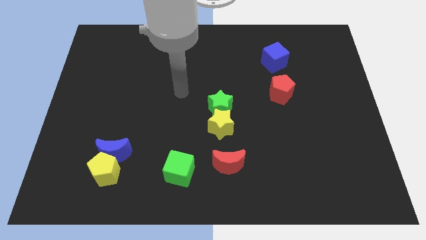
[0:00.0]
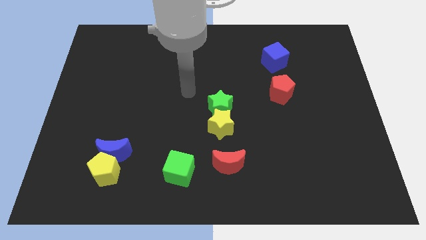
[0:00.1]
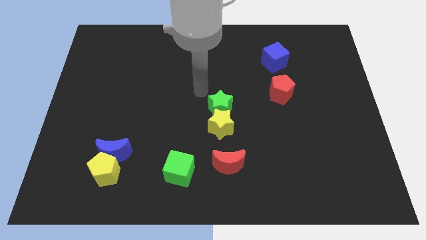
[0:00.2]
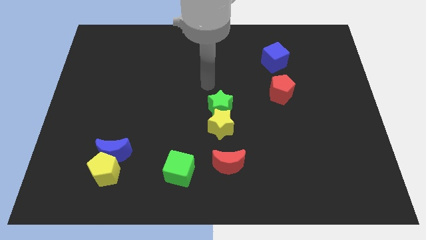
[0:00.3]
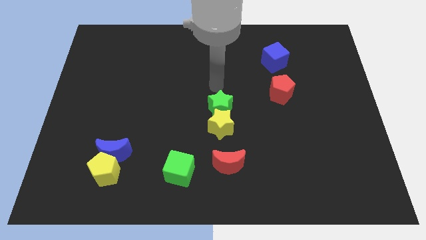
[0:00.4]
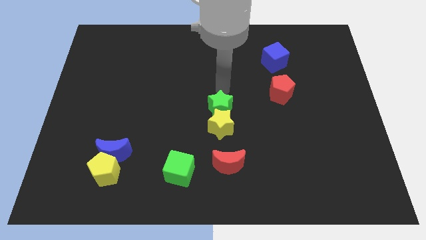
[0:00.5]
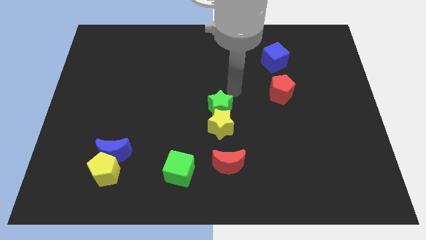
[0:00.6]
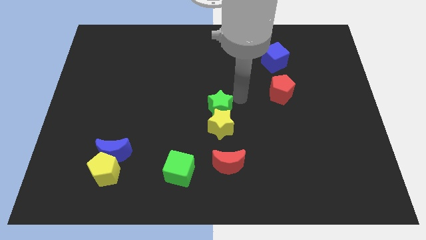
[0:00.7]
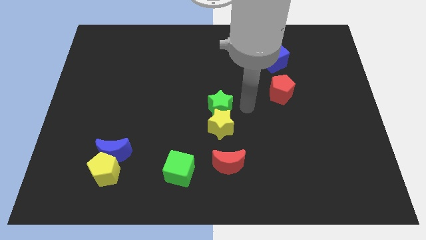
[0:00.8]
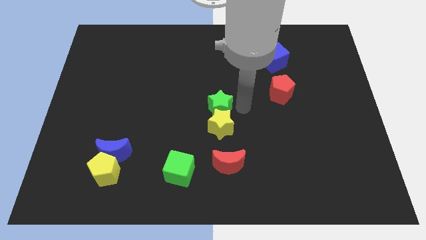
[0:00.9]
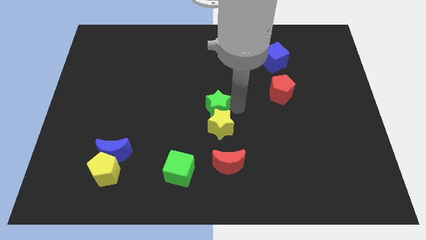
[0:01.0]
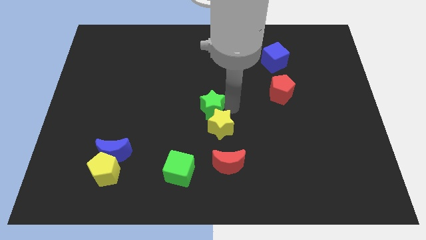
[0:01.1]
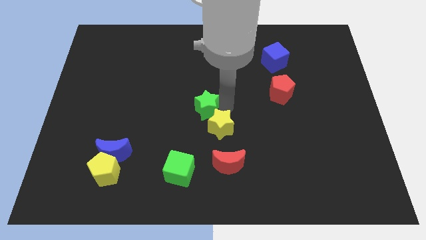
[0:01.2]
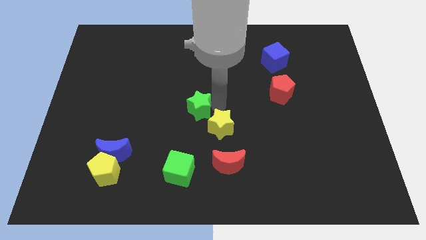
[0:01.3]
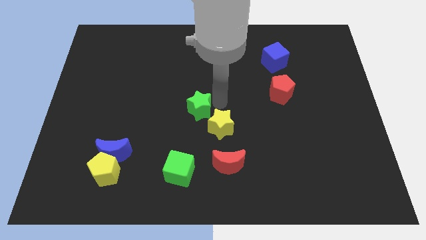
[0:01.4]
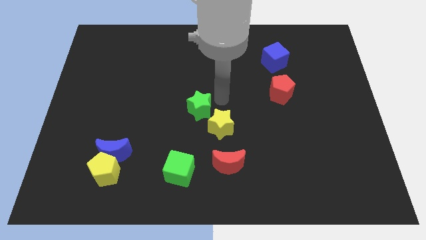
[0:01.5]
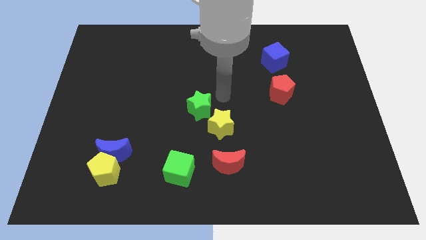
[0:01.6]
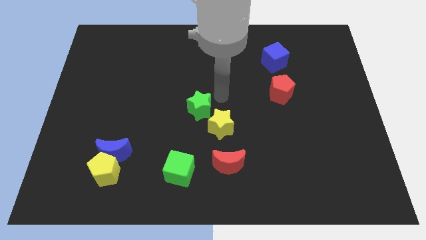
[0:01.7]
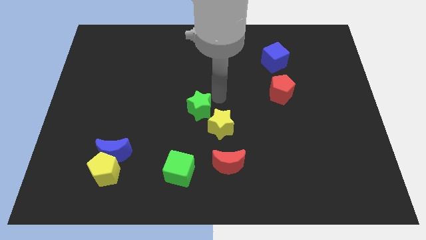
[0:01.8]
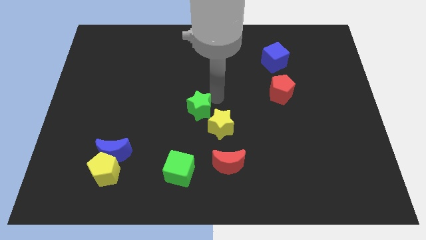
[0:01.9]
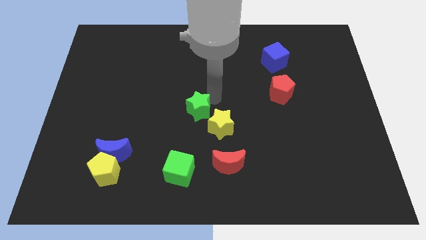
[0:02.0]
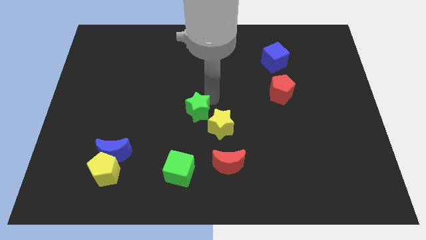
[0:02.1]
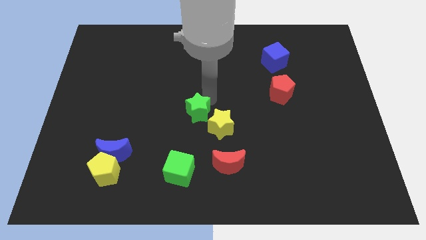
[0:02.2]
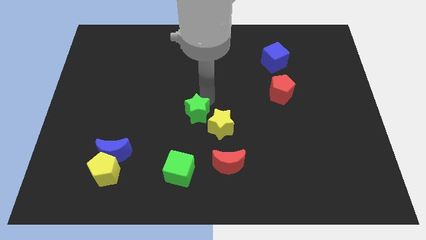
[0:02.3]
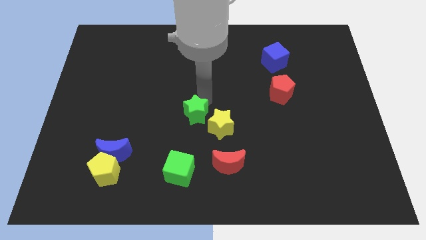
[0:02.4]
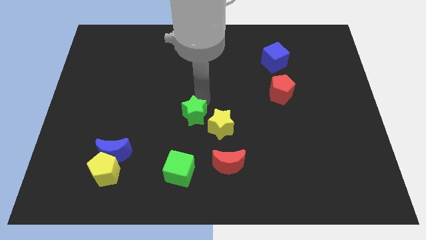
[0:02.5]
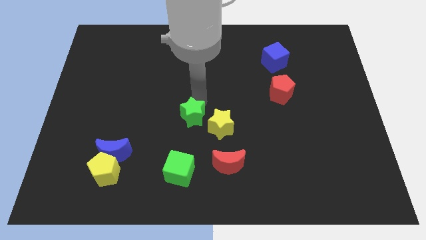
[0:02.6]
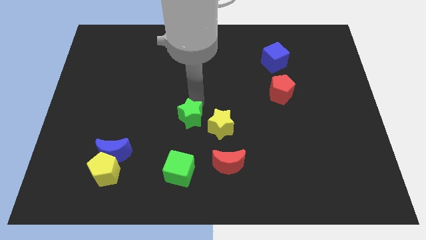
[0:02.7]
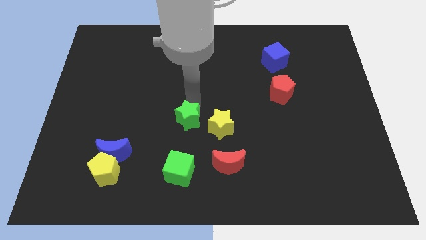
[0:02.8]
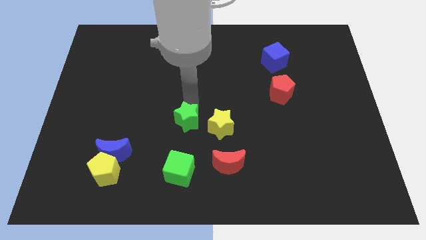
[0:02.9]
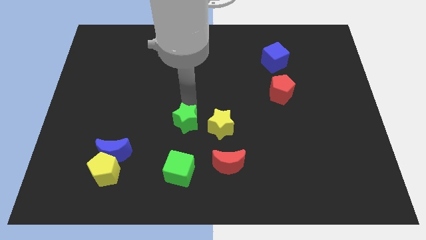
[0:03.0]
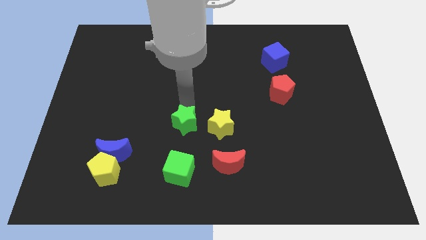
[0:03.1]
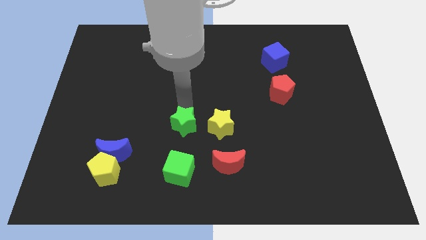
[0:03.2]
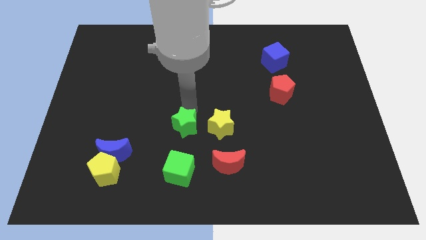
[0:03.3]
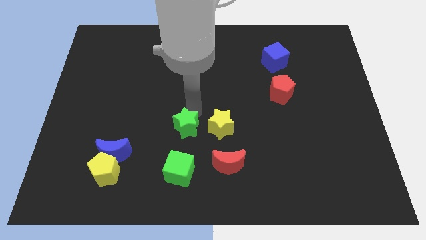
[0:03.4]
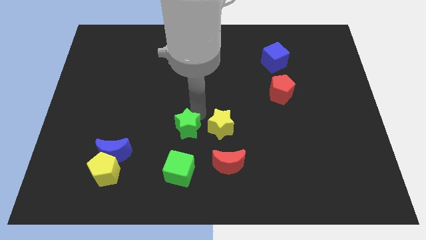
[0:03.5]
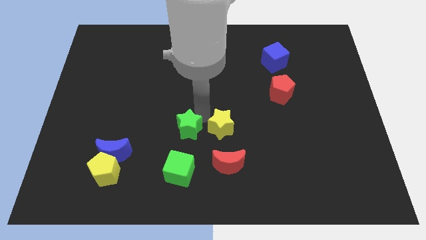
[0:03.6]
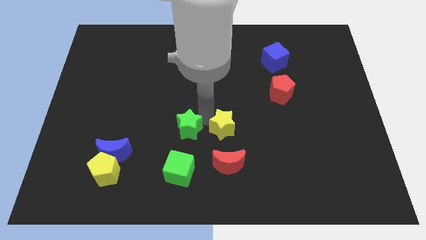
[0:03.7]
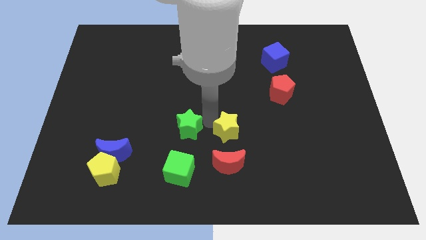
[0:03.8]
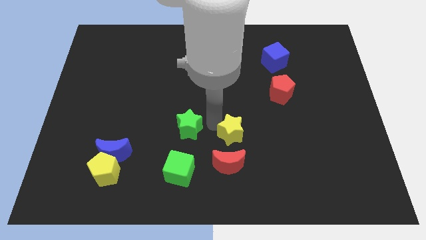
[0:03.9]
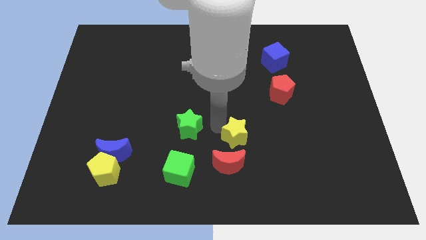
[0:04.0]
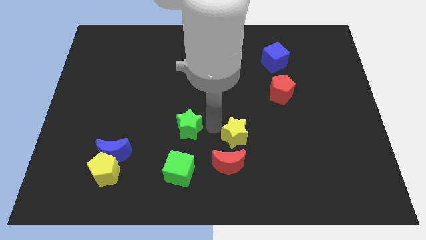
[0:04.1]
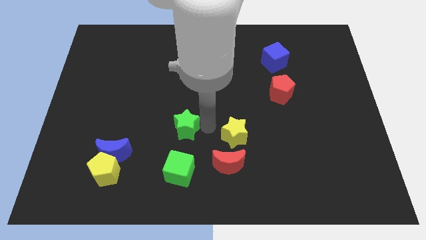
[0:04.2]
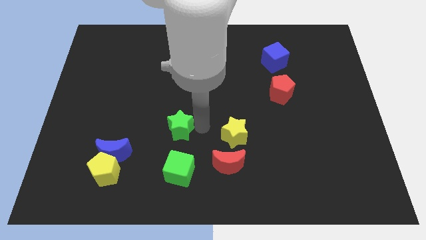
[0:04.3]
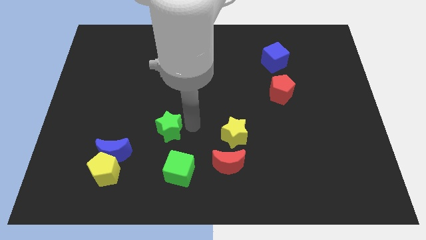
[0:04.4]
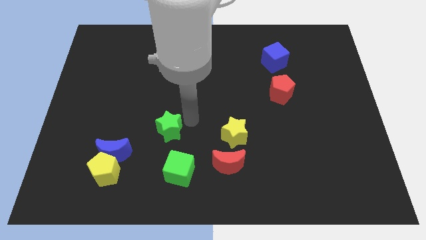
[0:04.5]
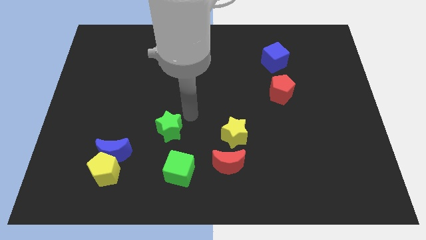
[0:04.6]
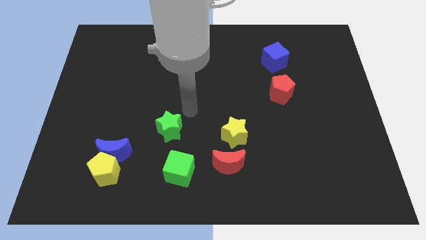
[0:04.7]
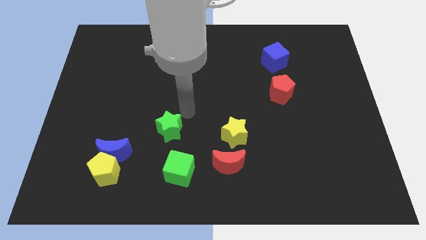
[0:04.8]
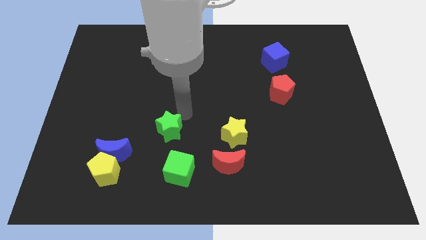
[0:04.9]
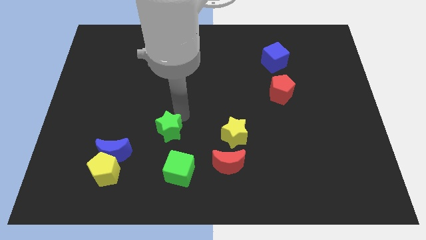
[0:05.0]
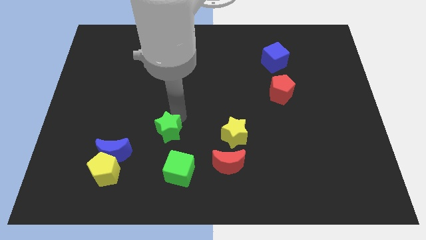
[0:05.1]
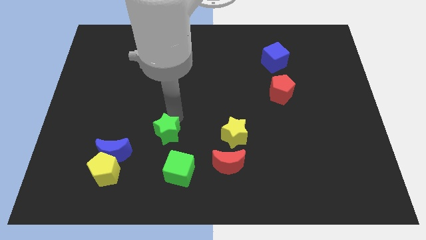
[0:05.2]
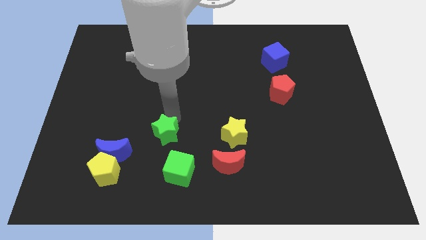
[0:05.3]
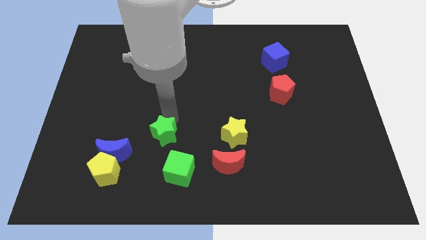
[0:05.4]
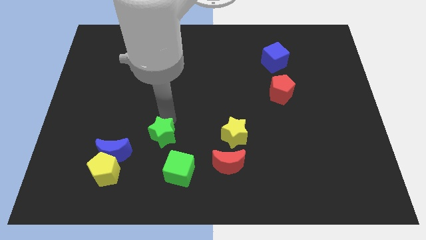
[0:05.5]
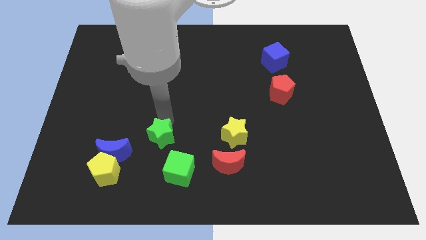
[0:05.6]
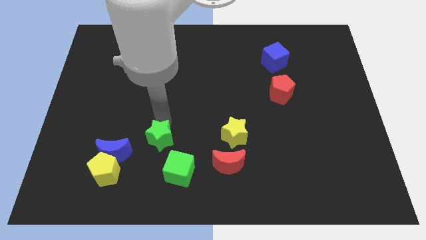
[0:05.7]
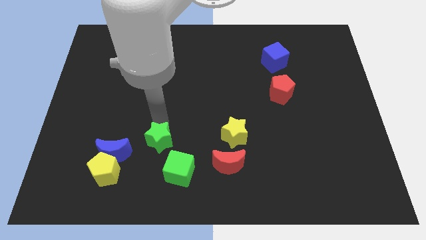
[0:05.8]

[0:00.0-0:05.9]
put the green star diagonally up and to the right of the yellow pentagon
